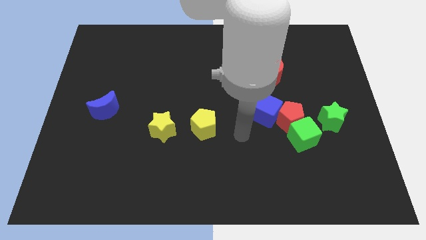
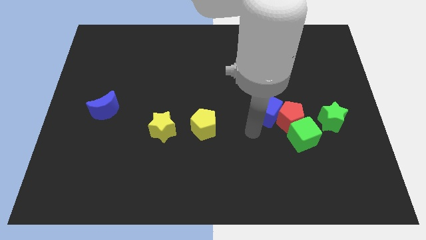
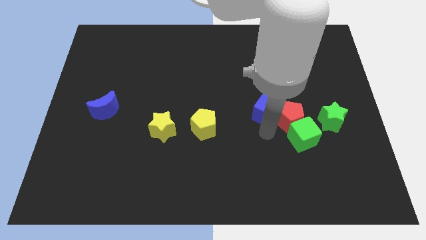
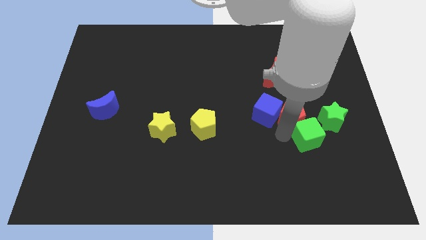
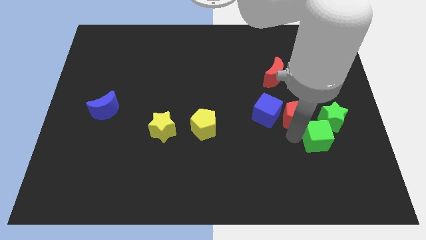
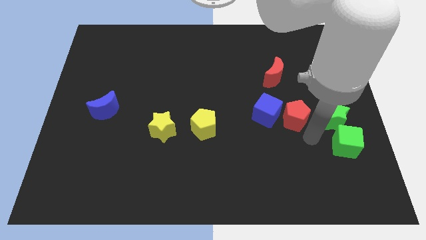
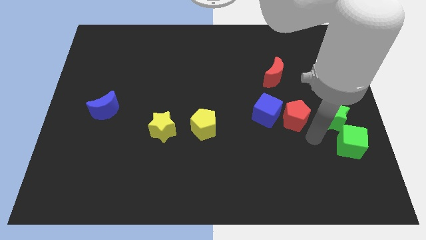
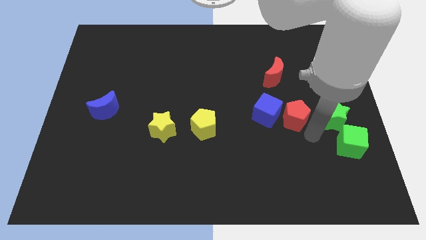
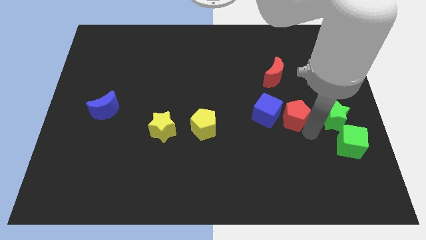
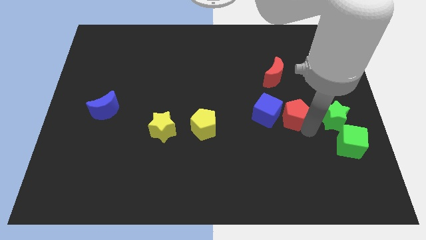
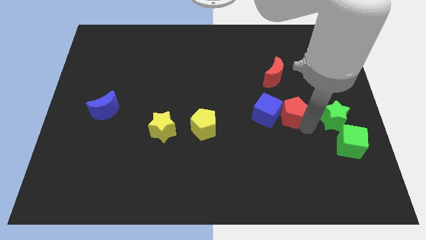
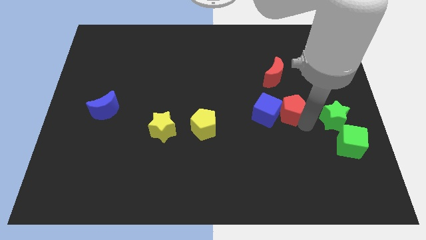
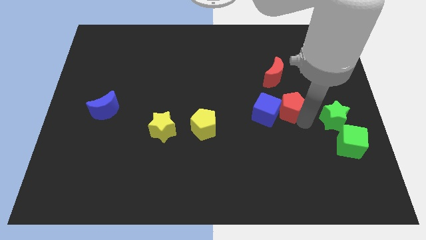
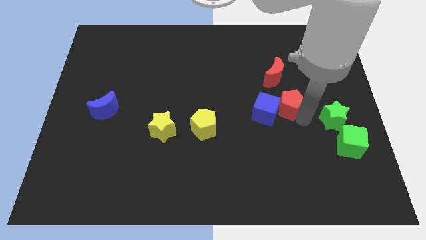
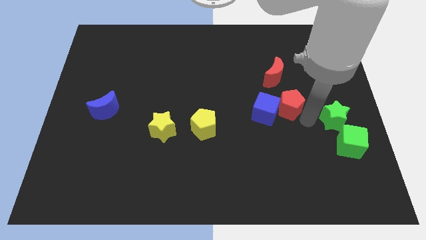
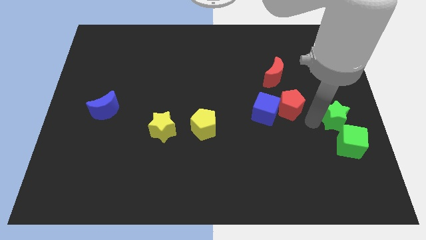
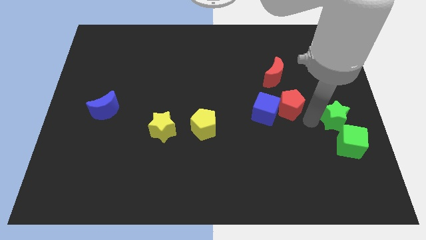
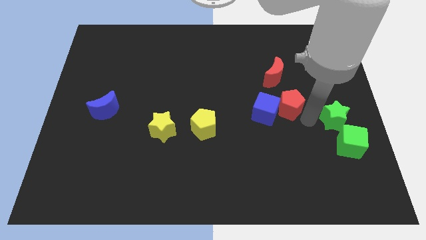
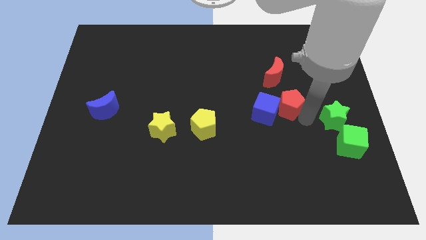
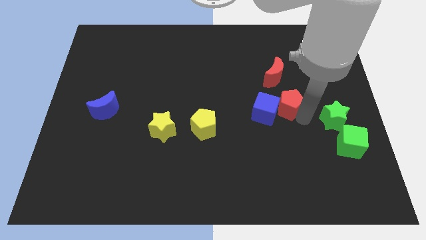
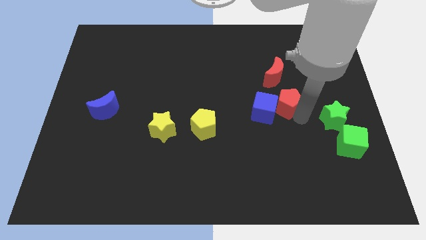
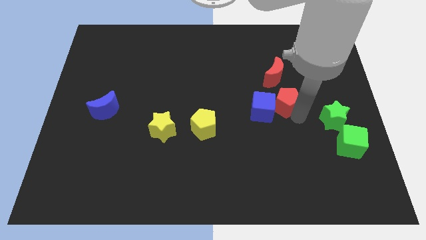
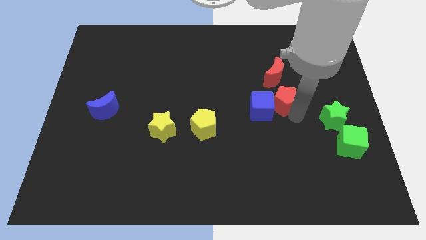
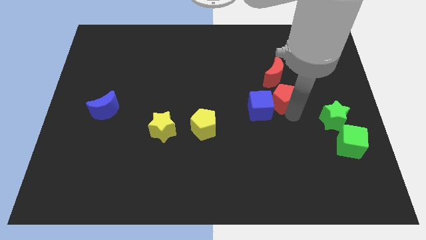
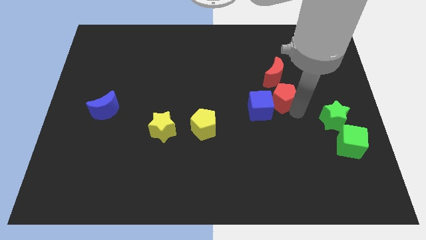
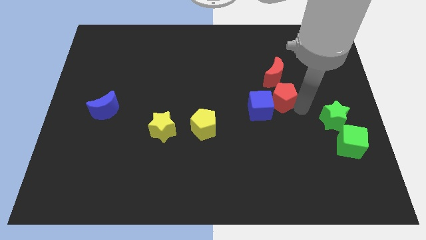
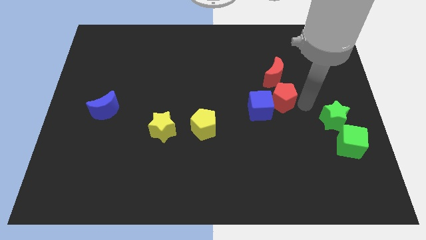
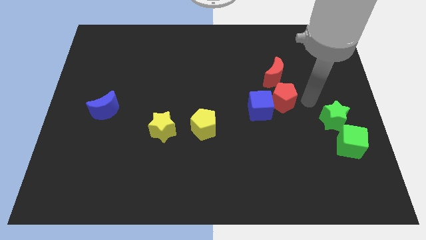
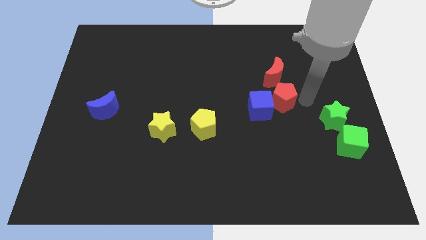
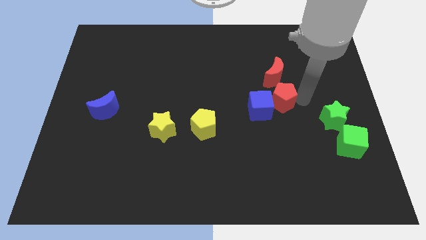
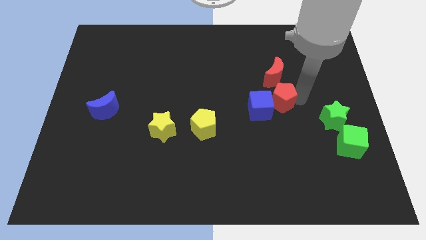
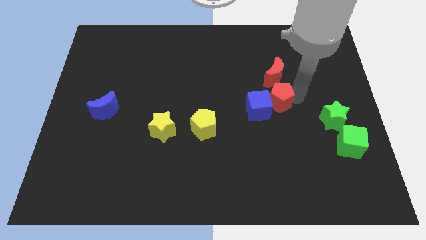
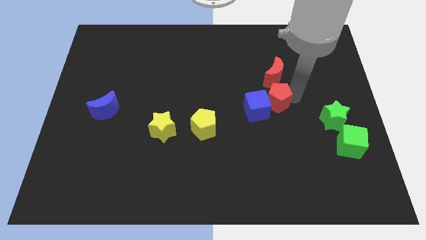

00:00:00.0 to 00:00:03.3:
pull the red pentagon apart from the blue cube, green cube, and green star

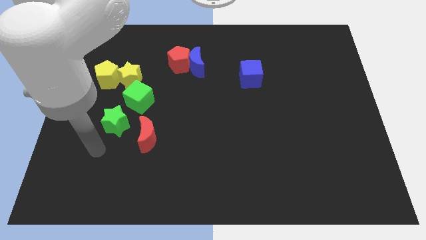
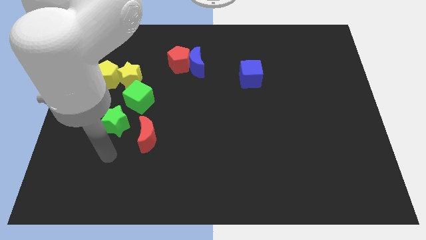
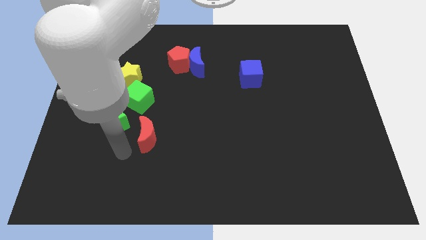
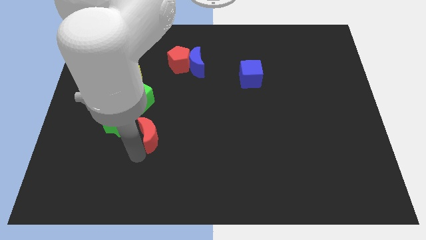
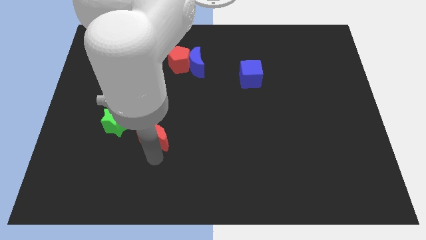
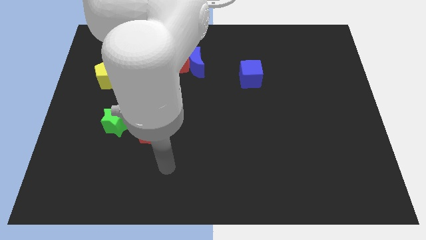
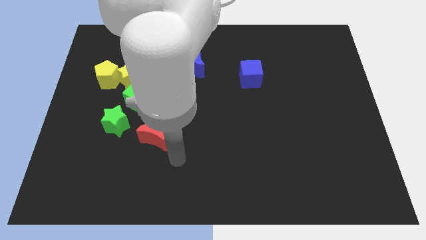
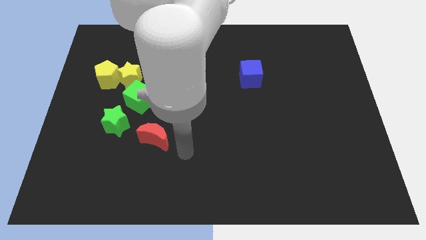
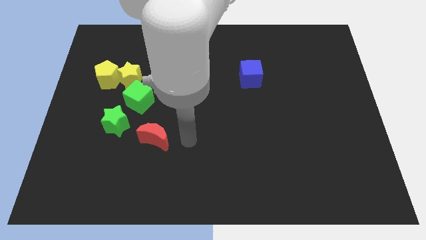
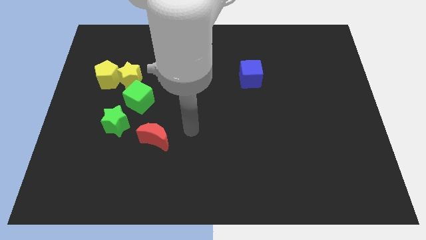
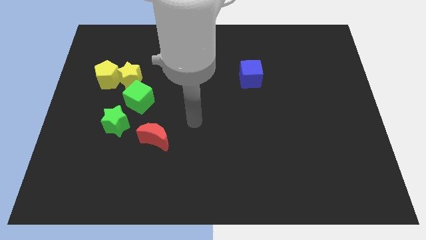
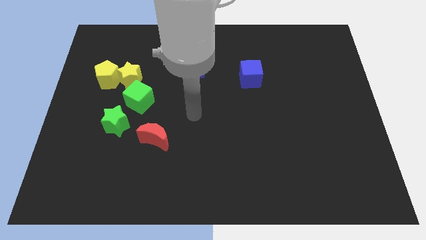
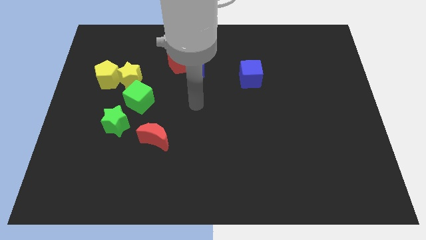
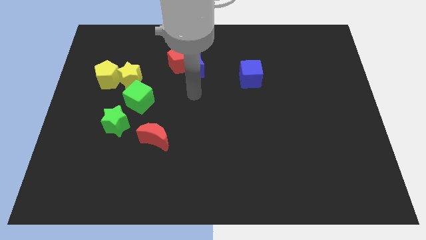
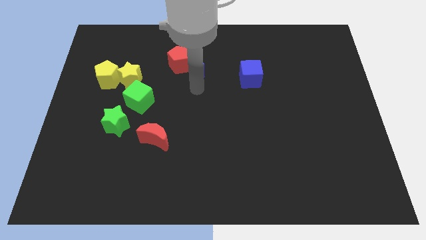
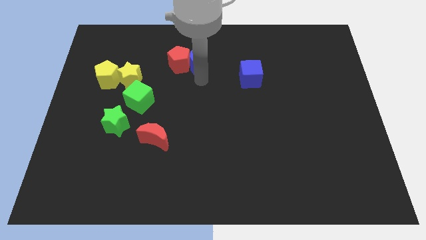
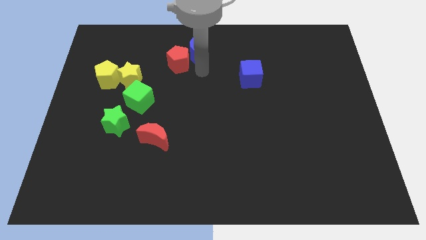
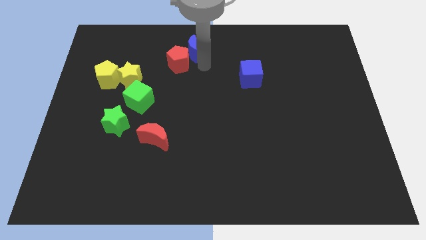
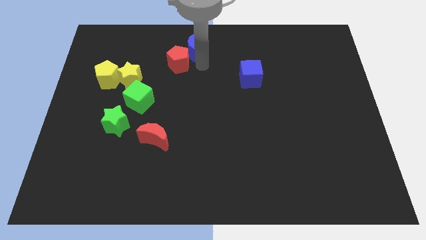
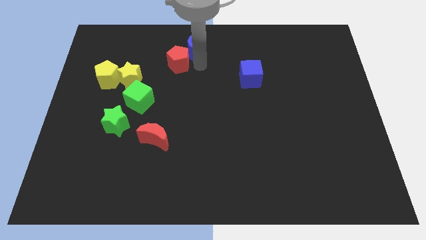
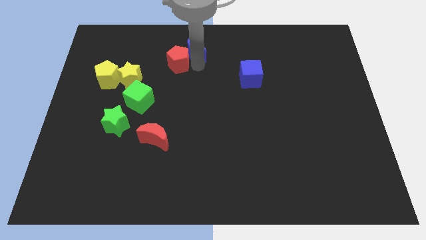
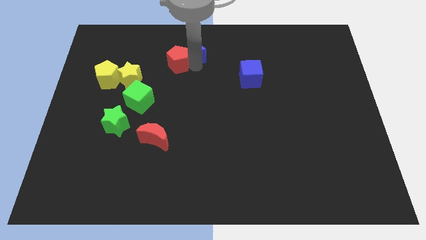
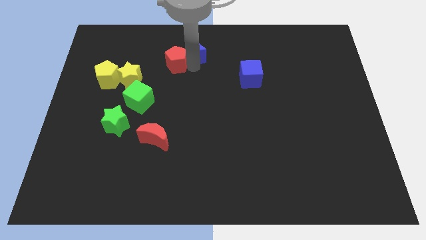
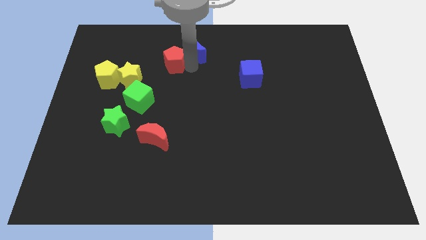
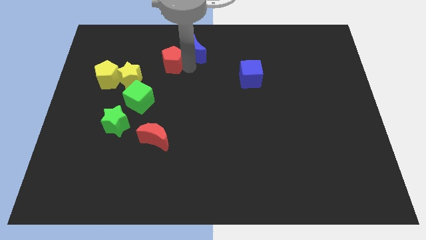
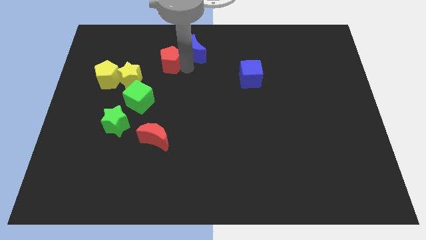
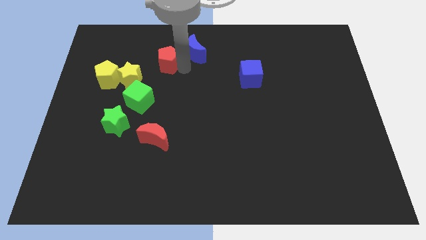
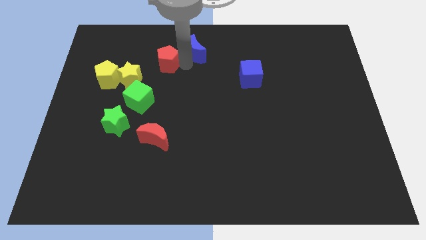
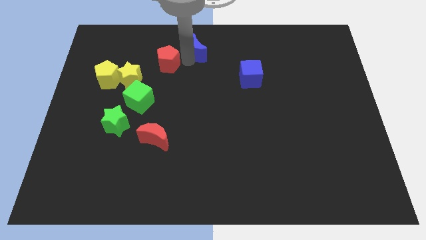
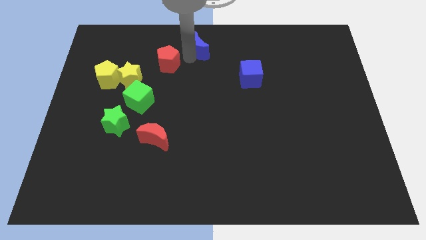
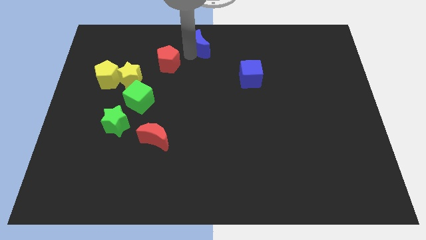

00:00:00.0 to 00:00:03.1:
separate the red pentagon from the blue moon

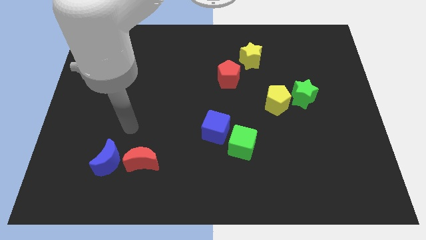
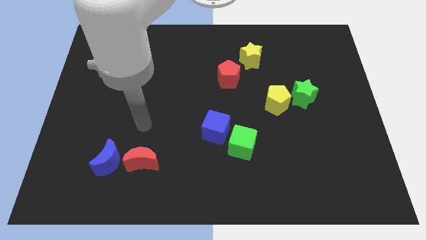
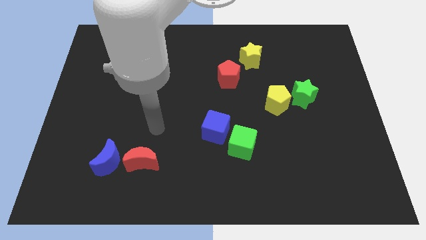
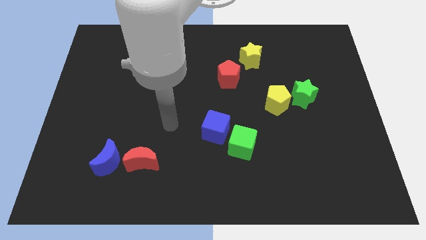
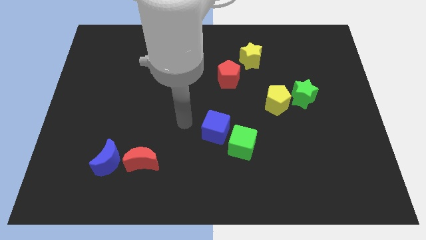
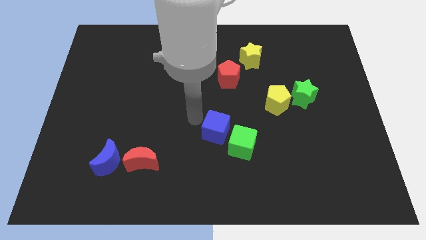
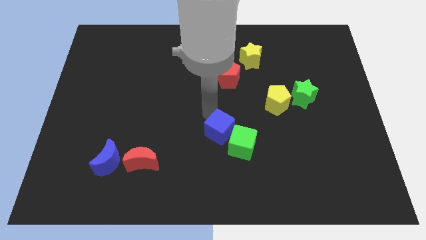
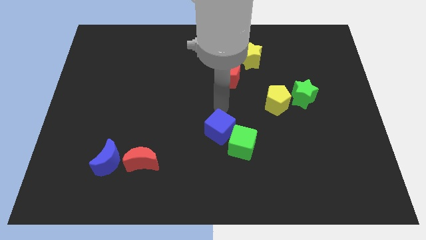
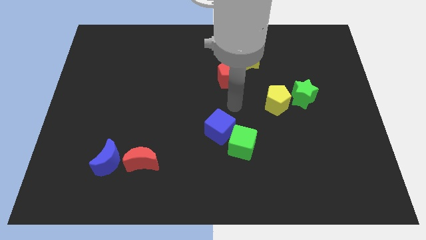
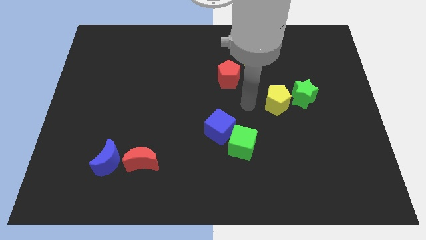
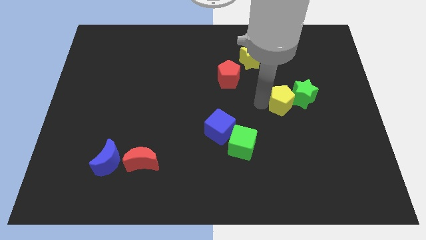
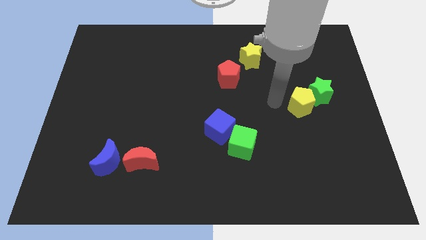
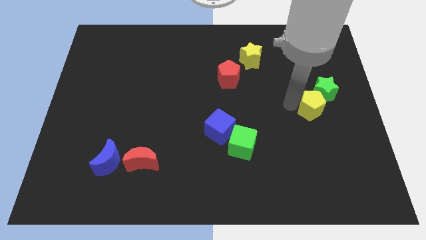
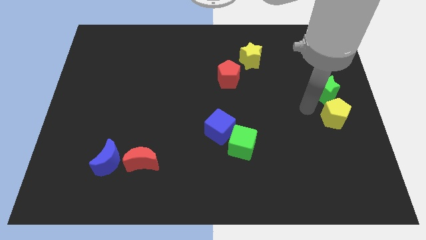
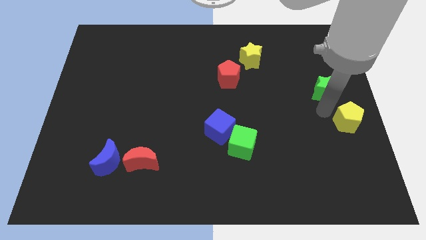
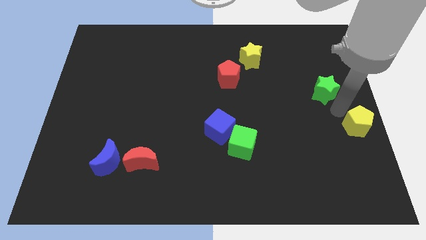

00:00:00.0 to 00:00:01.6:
pull the green star apart from the yellow pentagon

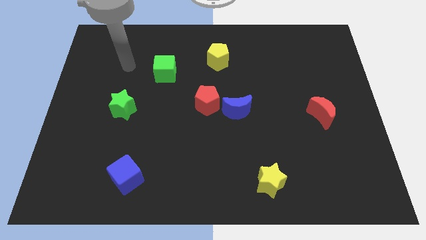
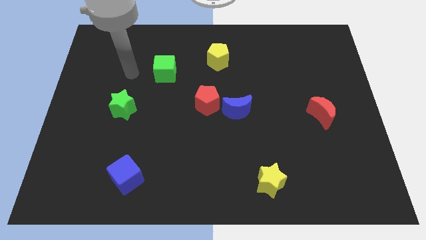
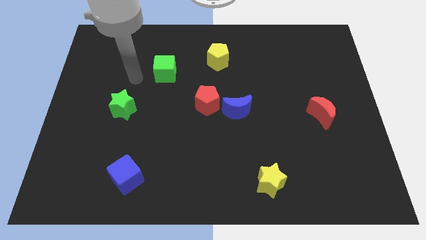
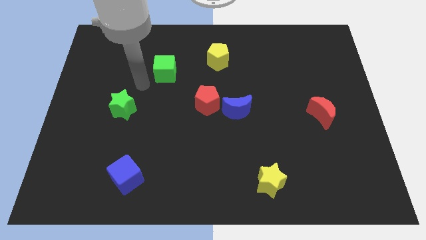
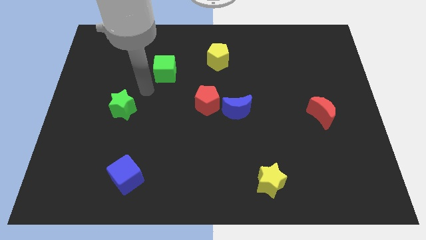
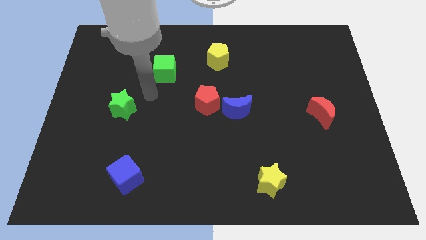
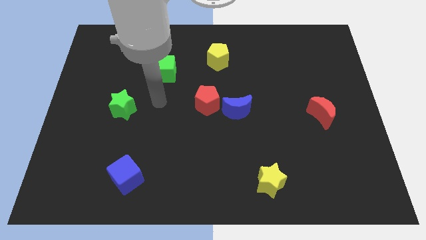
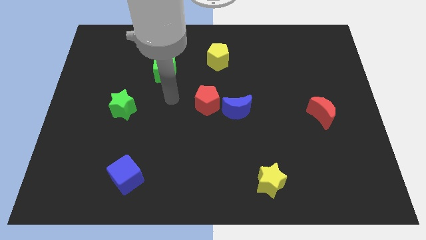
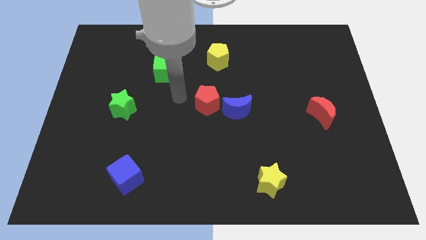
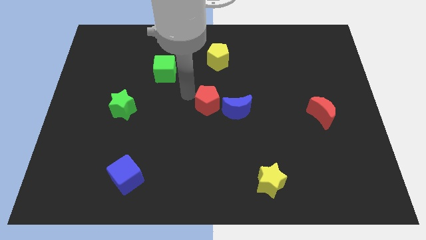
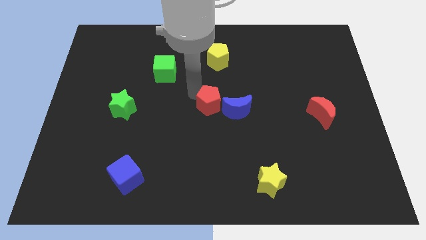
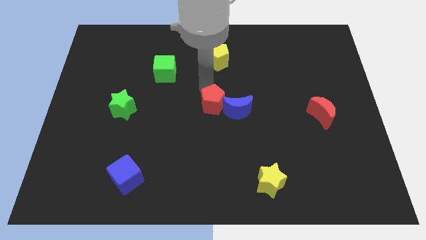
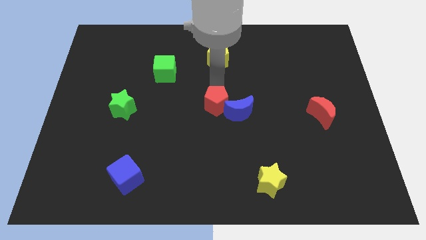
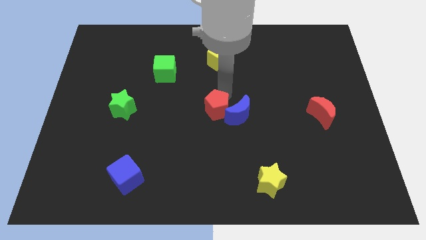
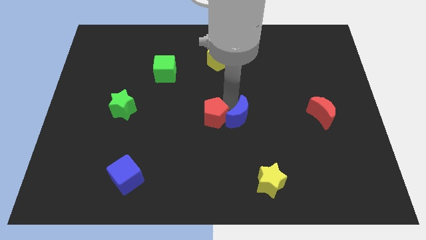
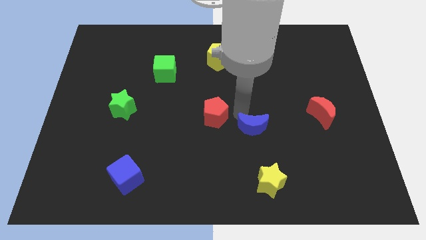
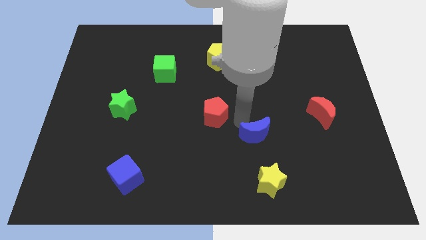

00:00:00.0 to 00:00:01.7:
move the red pentagon away from the blue moon
